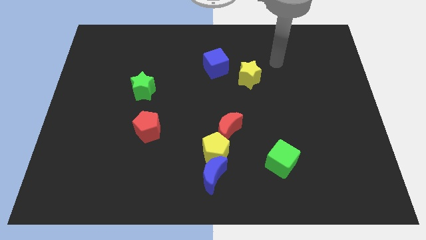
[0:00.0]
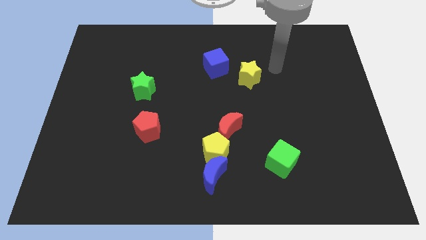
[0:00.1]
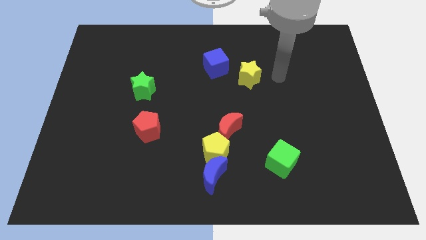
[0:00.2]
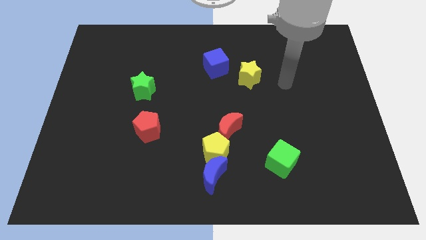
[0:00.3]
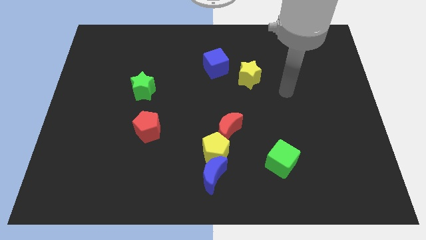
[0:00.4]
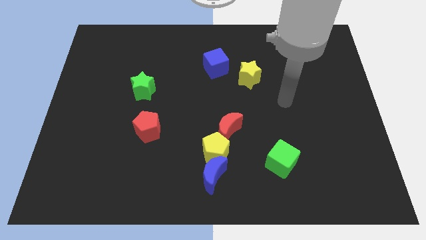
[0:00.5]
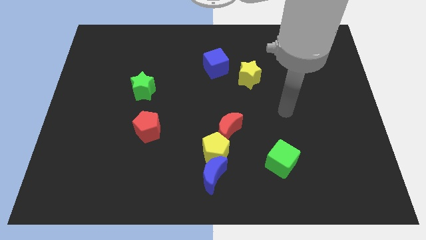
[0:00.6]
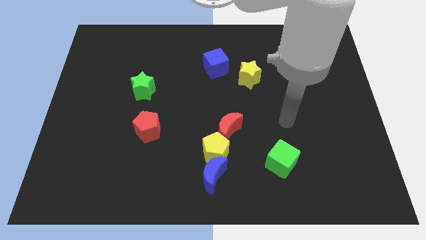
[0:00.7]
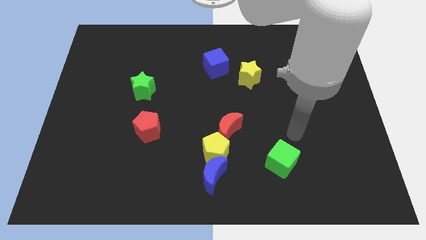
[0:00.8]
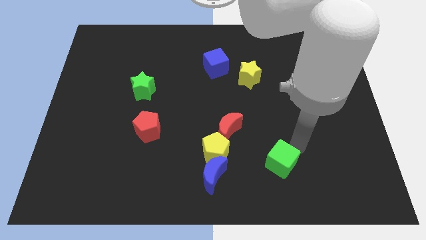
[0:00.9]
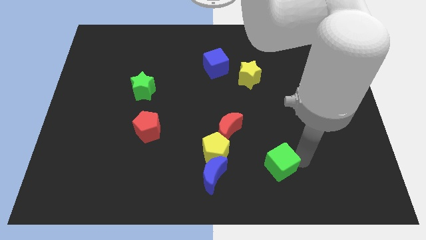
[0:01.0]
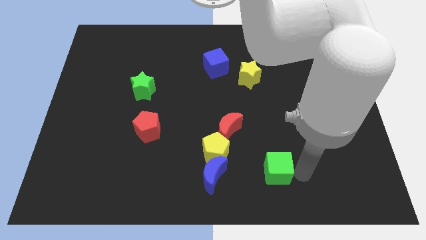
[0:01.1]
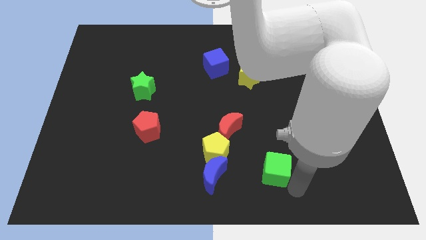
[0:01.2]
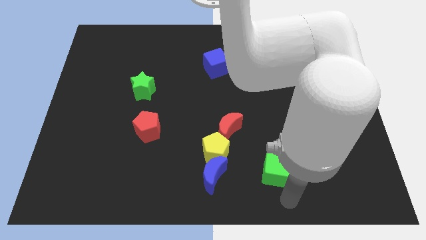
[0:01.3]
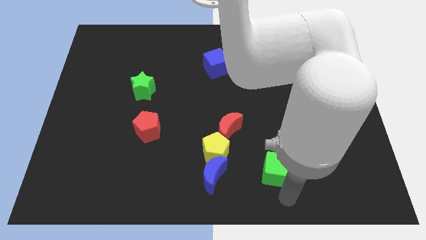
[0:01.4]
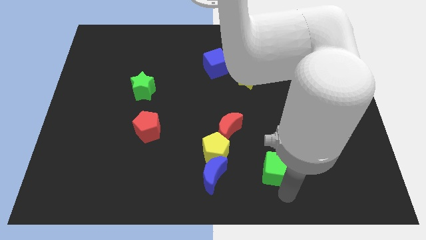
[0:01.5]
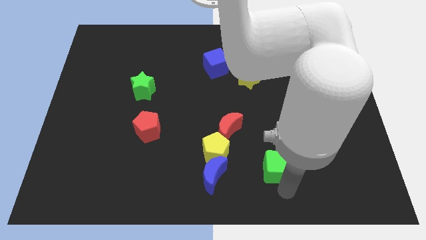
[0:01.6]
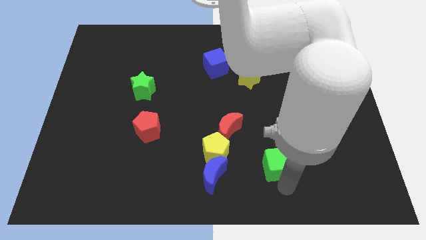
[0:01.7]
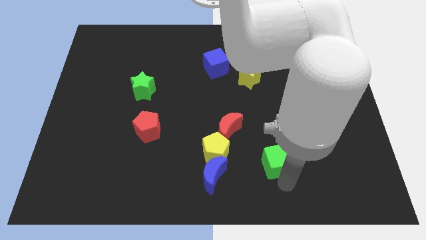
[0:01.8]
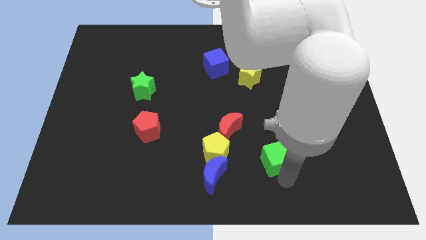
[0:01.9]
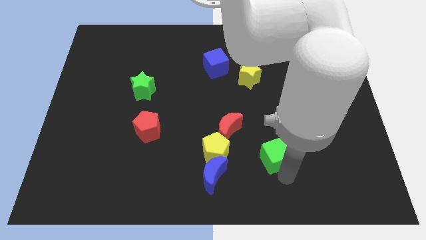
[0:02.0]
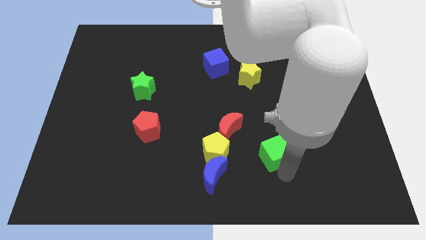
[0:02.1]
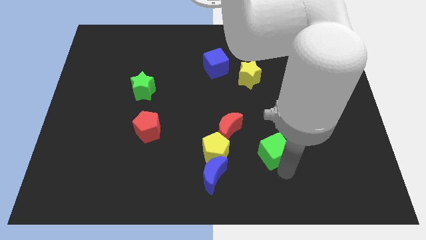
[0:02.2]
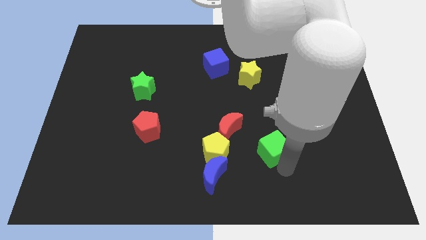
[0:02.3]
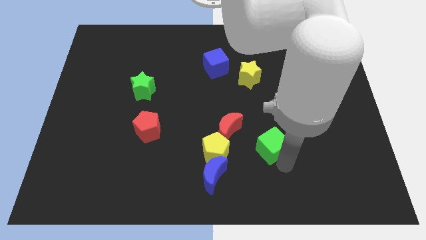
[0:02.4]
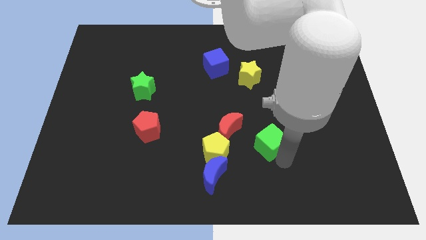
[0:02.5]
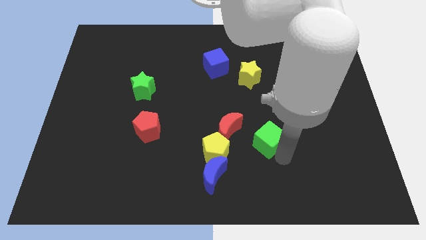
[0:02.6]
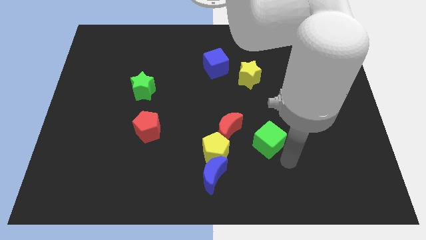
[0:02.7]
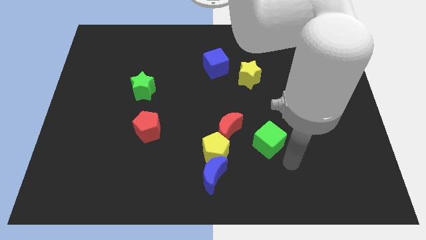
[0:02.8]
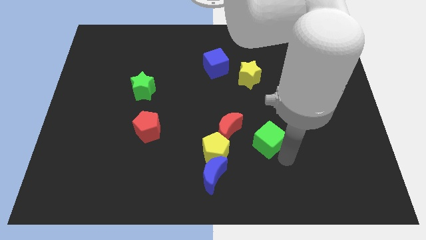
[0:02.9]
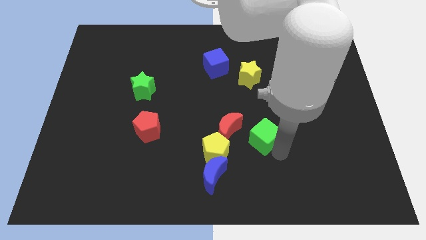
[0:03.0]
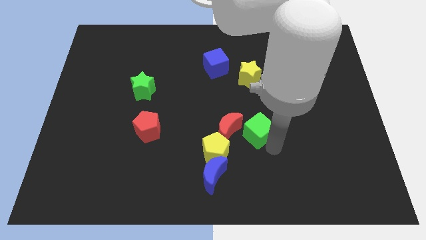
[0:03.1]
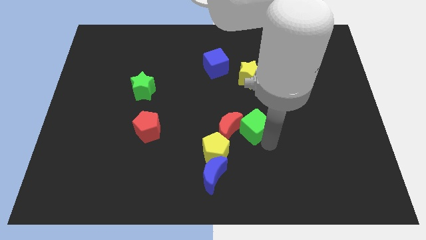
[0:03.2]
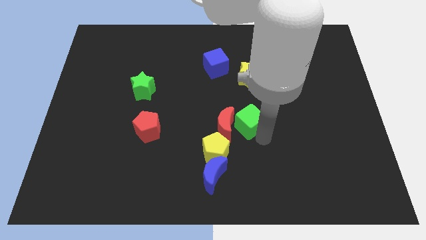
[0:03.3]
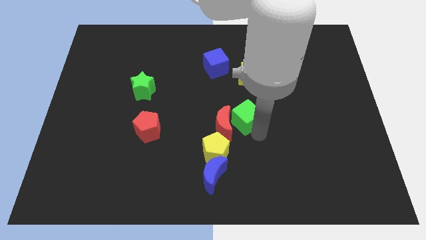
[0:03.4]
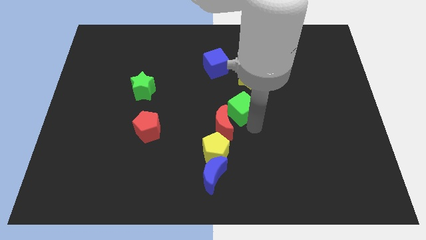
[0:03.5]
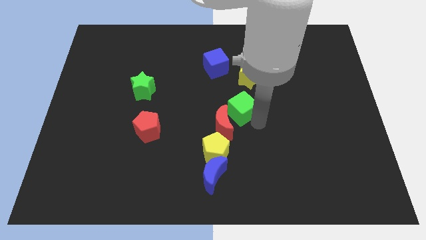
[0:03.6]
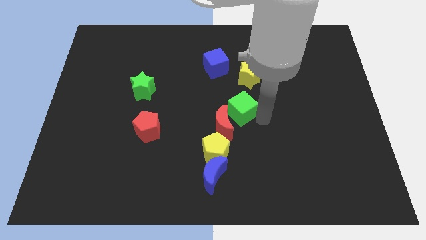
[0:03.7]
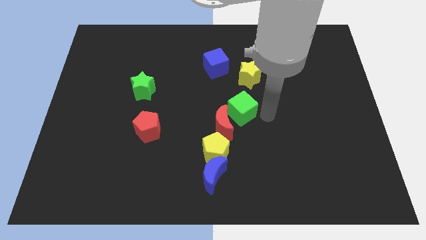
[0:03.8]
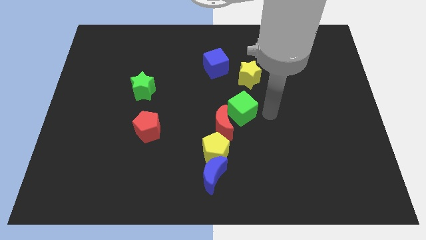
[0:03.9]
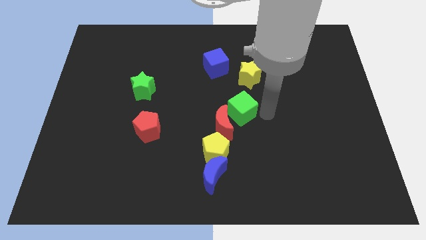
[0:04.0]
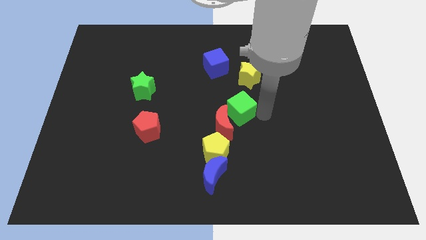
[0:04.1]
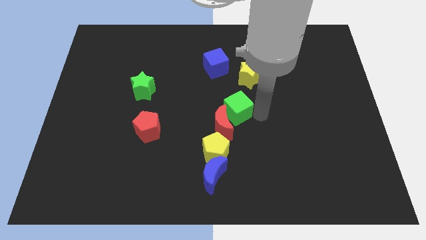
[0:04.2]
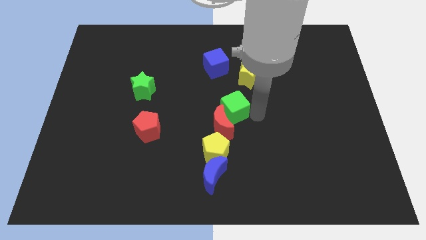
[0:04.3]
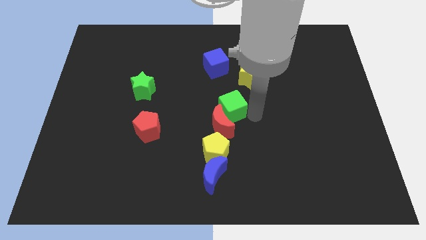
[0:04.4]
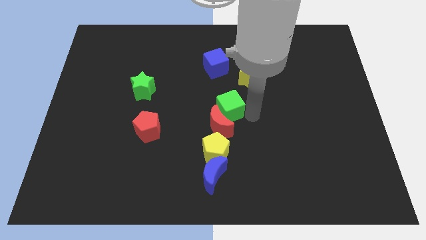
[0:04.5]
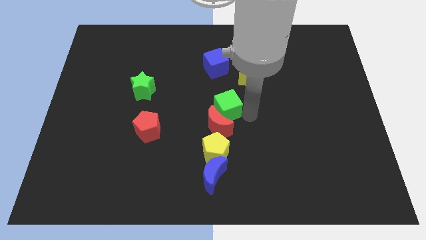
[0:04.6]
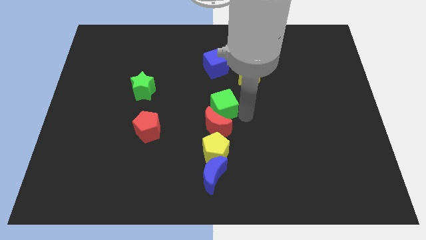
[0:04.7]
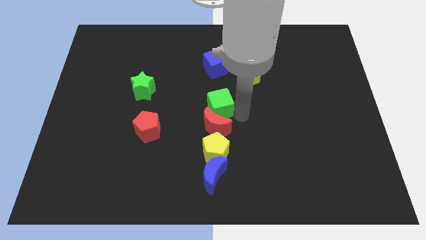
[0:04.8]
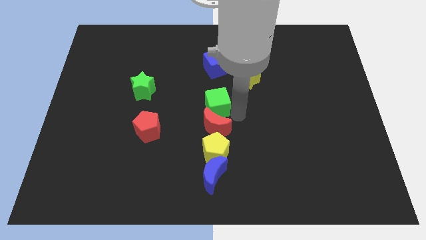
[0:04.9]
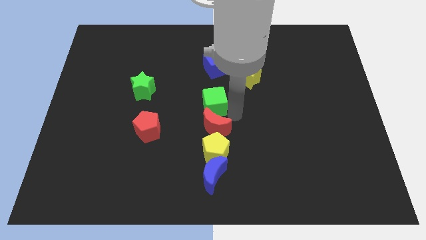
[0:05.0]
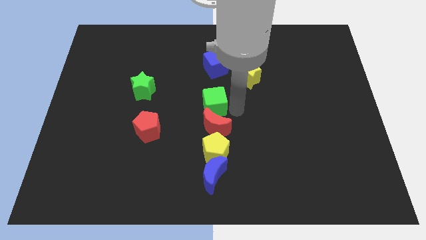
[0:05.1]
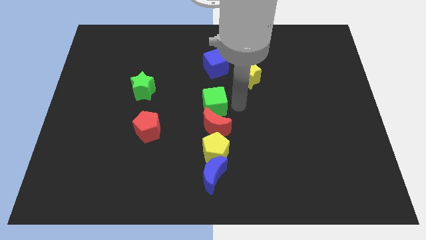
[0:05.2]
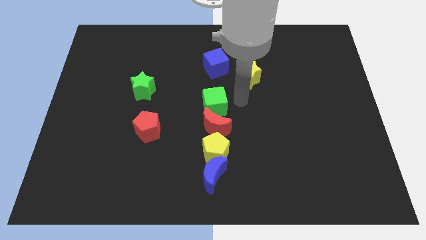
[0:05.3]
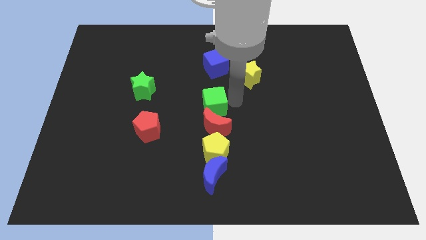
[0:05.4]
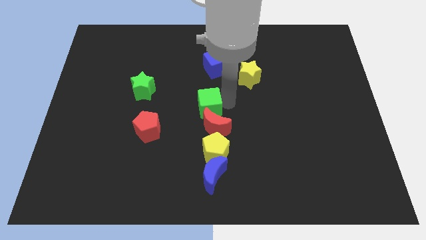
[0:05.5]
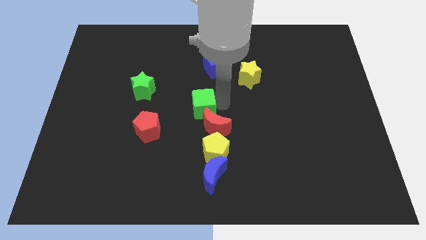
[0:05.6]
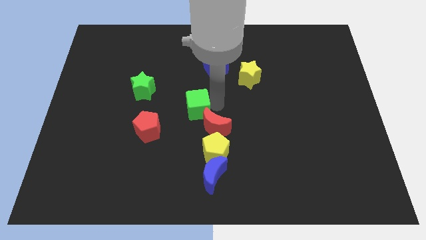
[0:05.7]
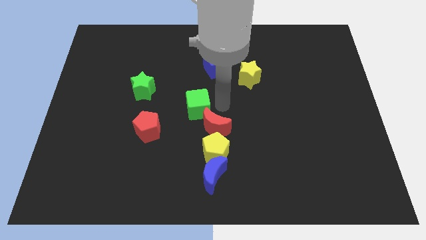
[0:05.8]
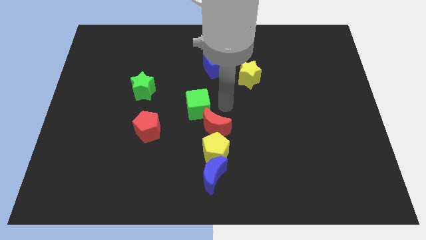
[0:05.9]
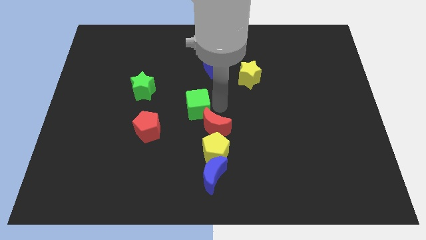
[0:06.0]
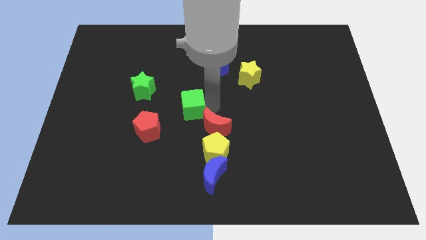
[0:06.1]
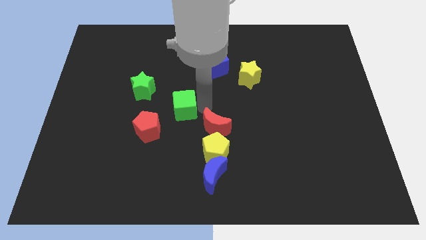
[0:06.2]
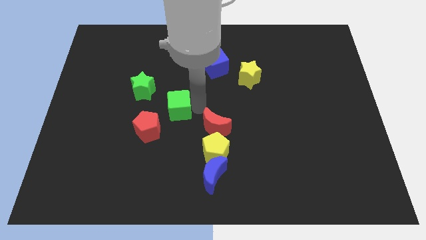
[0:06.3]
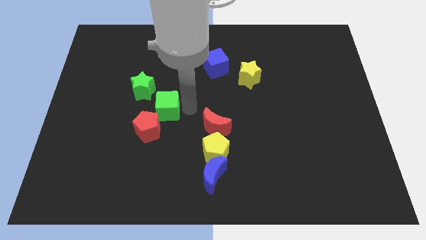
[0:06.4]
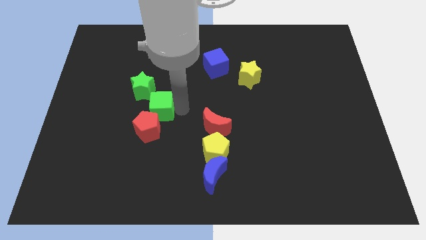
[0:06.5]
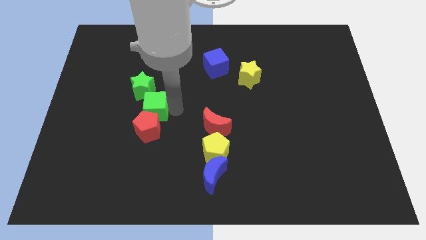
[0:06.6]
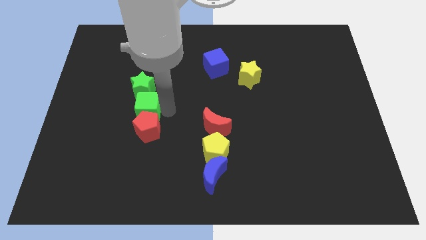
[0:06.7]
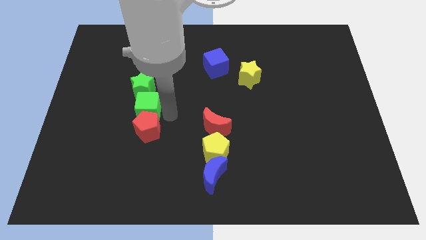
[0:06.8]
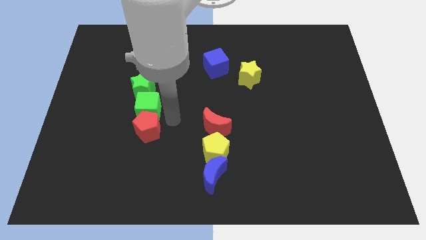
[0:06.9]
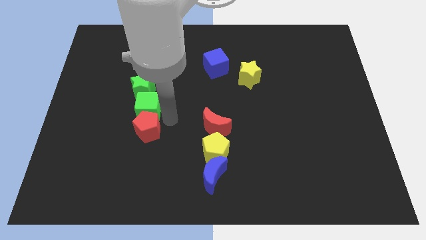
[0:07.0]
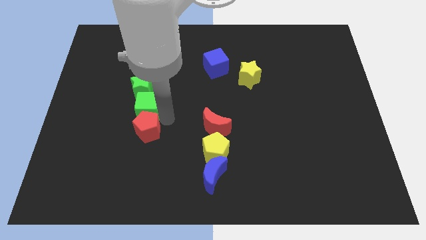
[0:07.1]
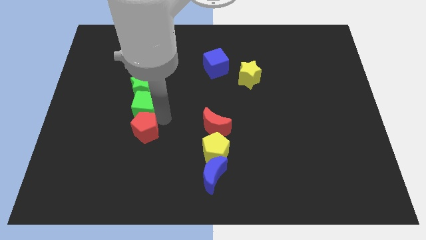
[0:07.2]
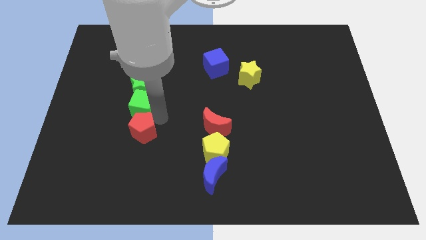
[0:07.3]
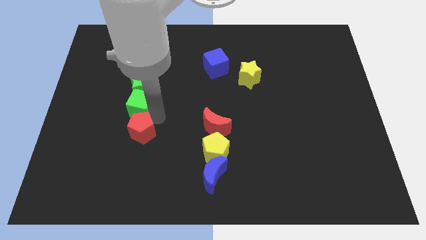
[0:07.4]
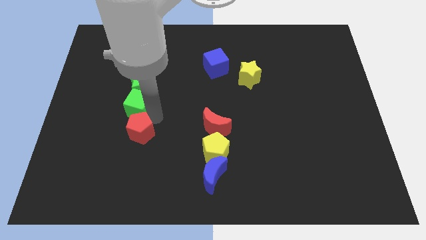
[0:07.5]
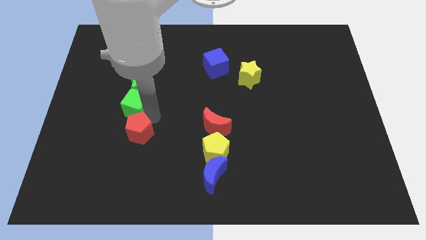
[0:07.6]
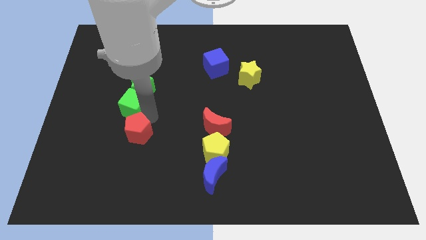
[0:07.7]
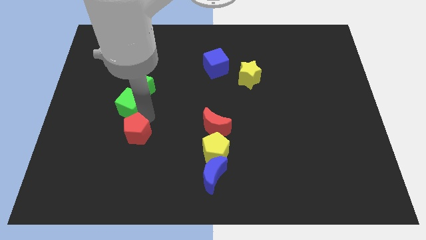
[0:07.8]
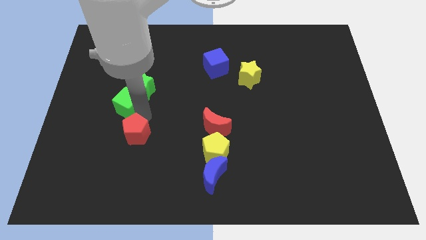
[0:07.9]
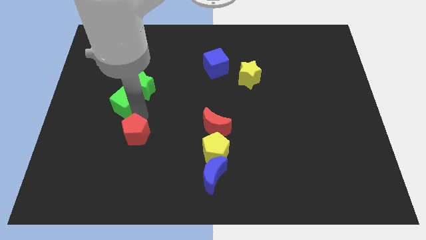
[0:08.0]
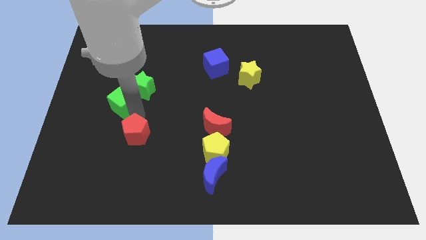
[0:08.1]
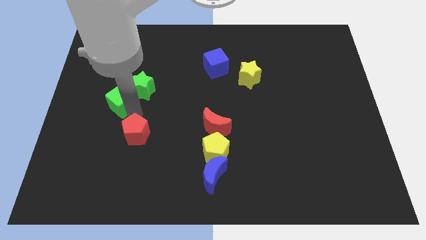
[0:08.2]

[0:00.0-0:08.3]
put the green cube left of the green star
